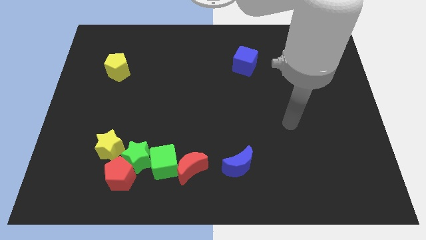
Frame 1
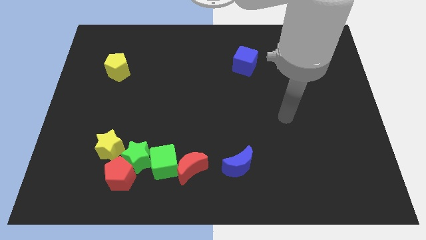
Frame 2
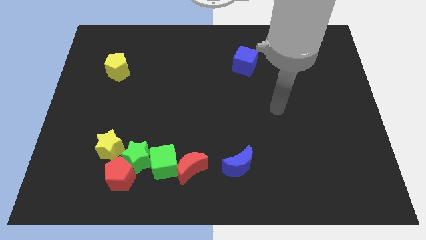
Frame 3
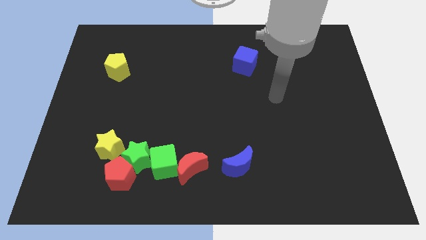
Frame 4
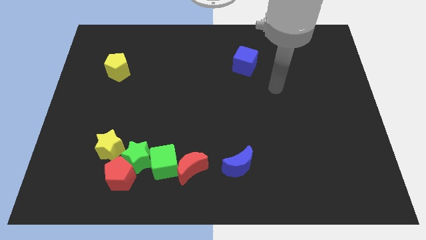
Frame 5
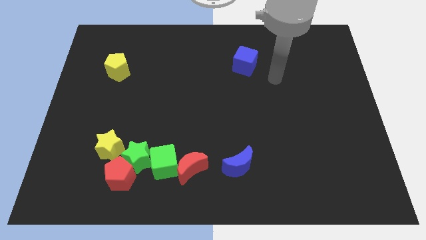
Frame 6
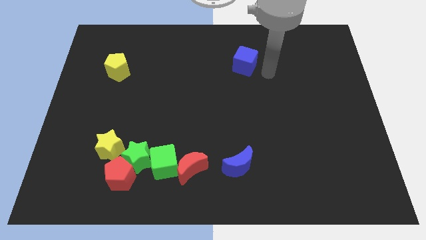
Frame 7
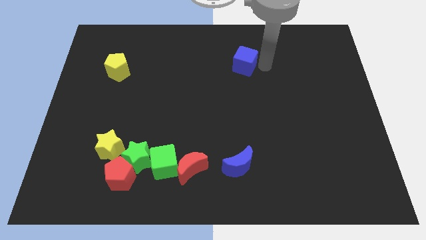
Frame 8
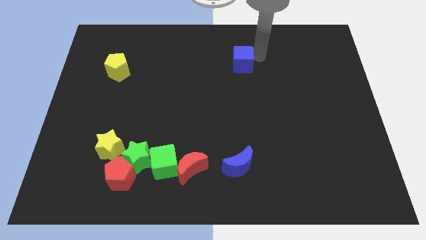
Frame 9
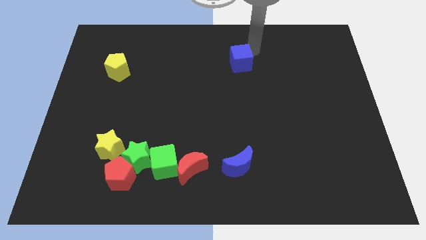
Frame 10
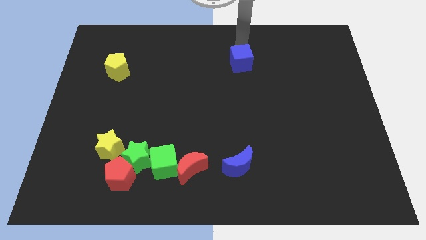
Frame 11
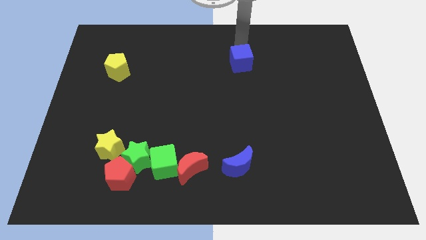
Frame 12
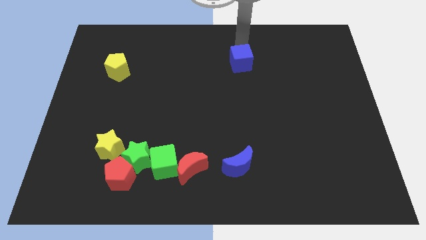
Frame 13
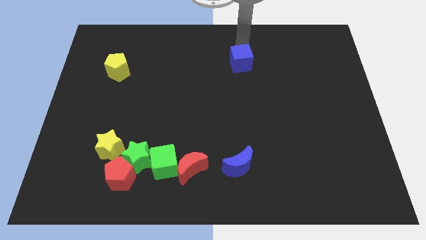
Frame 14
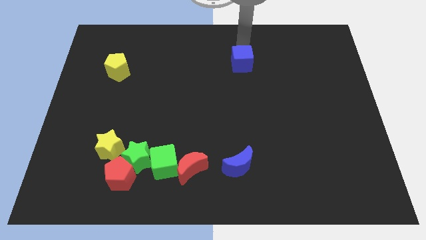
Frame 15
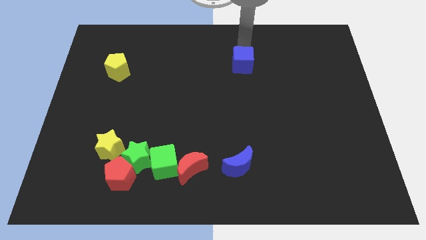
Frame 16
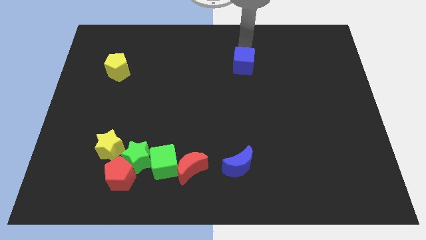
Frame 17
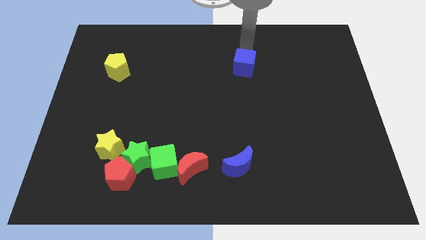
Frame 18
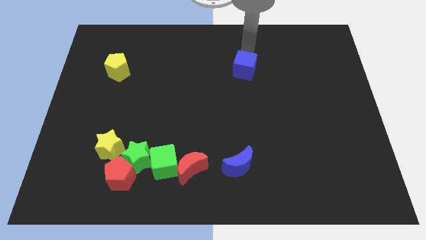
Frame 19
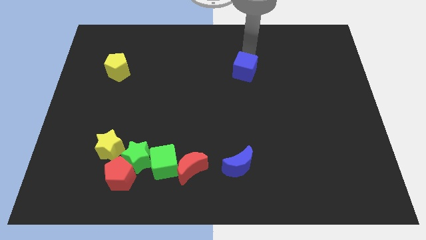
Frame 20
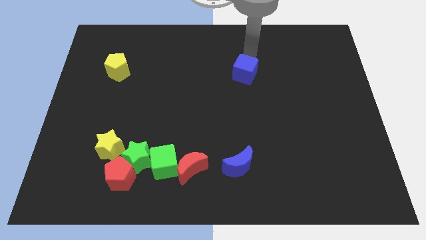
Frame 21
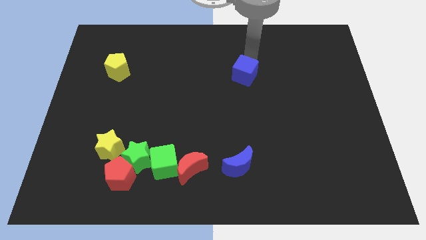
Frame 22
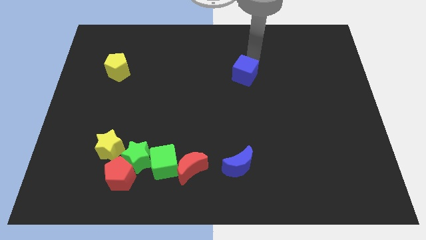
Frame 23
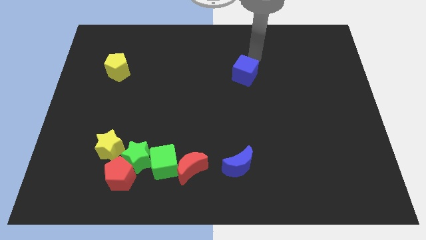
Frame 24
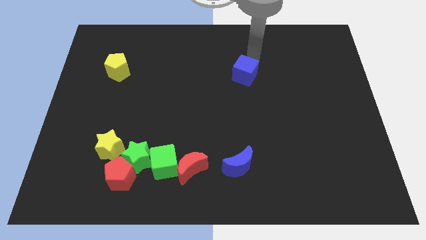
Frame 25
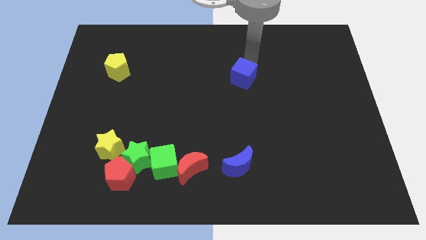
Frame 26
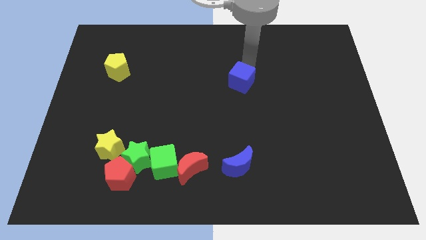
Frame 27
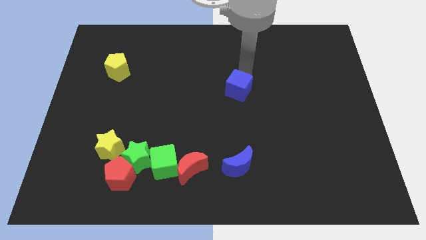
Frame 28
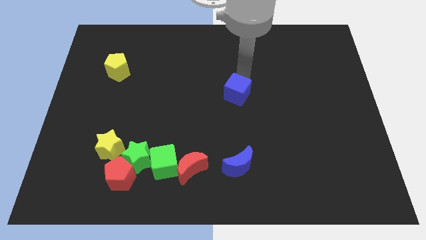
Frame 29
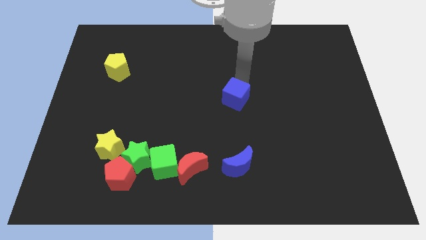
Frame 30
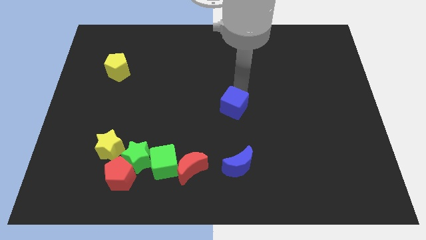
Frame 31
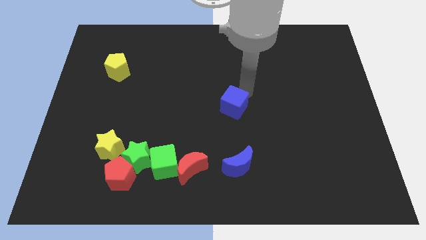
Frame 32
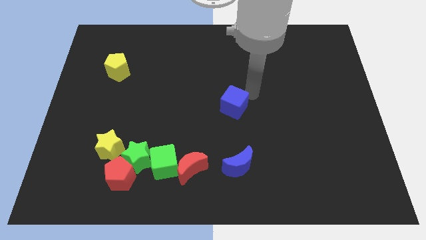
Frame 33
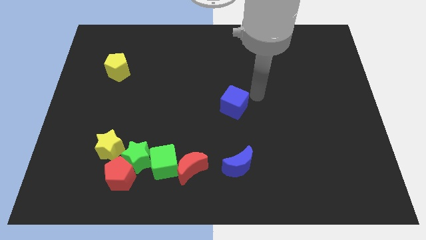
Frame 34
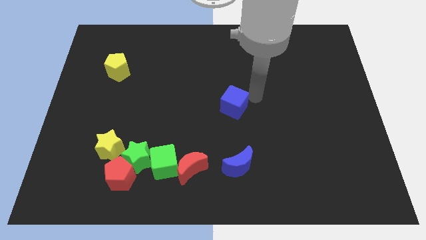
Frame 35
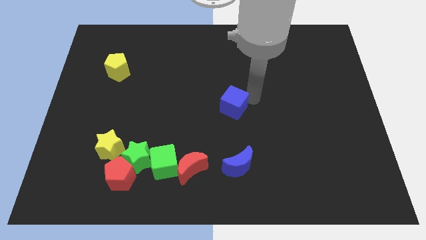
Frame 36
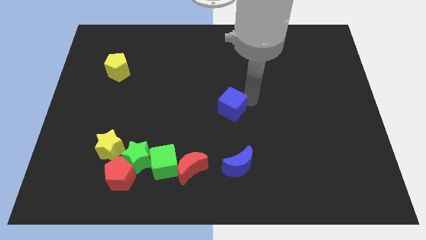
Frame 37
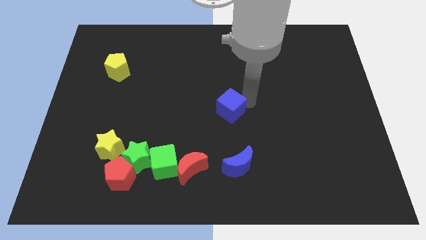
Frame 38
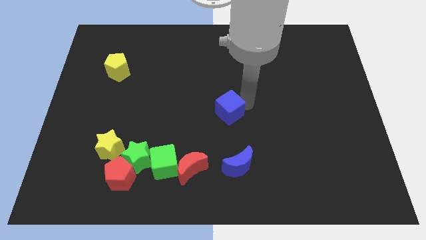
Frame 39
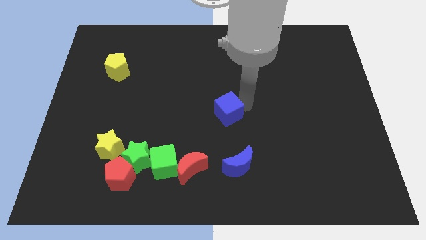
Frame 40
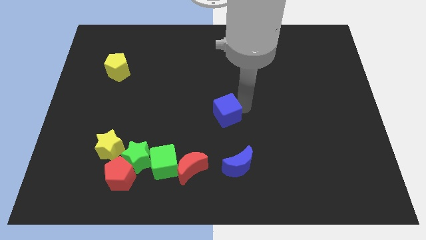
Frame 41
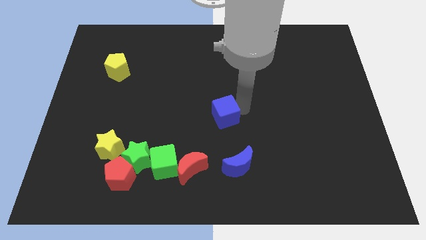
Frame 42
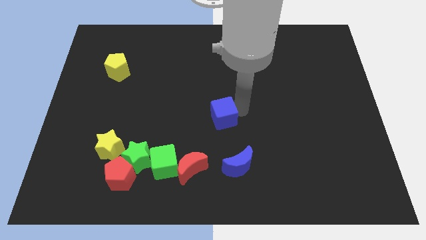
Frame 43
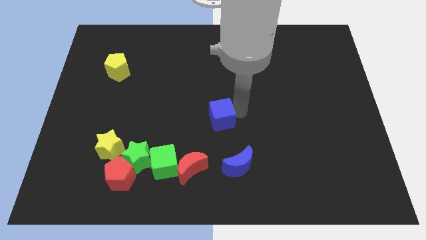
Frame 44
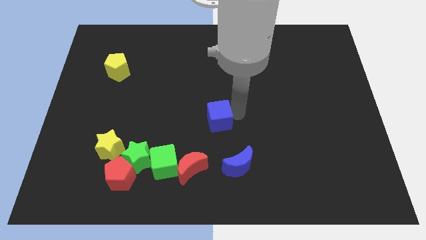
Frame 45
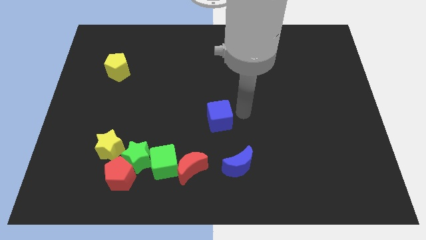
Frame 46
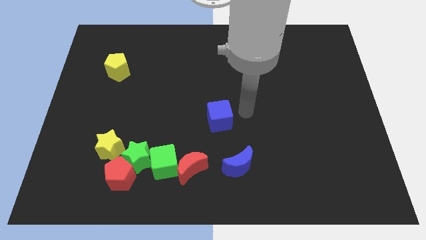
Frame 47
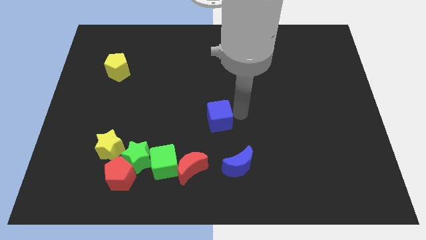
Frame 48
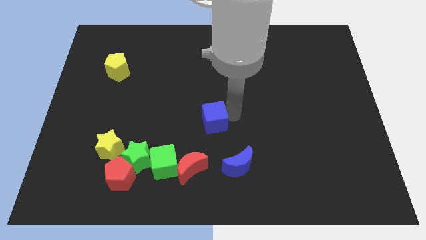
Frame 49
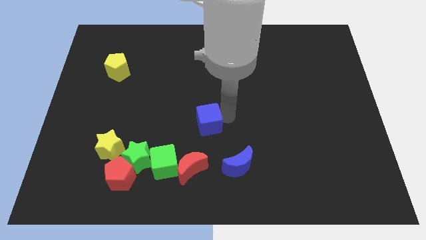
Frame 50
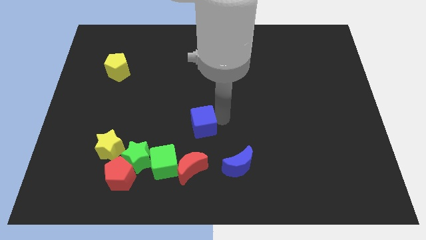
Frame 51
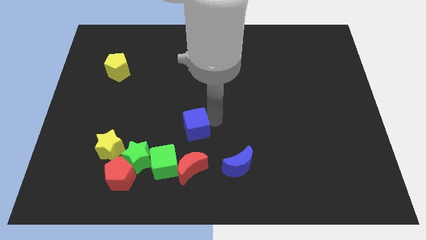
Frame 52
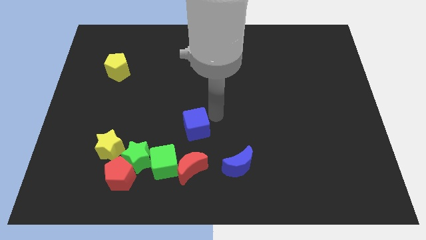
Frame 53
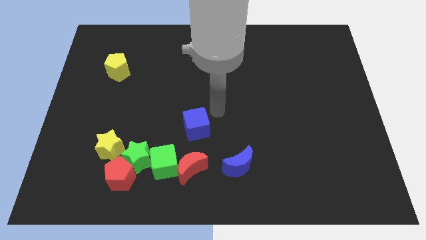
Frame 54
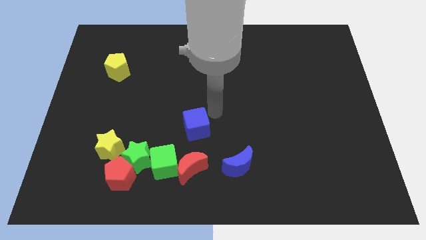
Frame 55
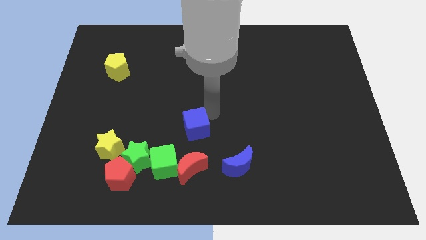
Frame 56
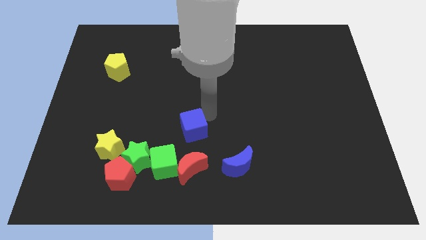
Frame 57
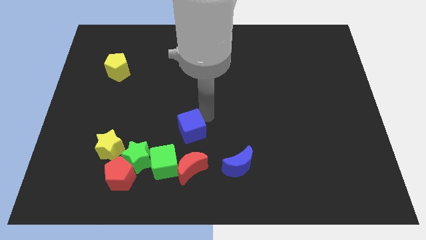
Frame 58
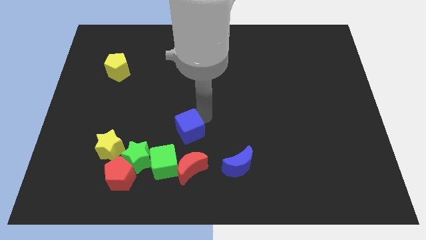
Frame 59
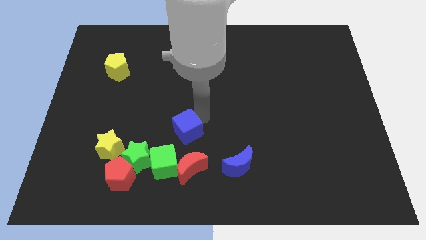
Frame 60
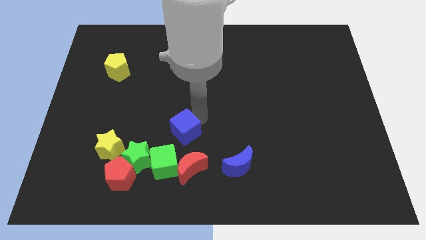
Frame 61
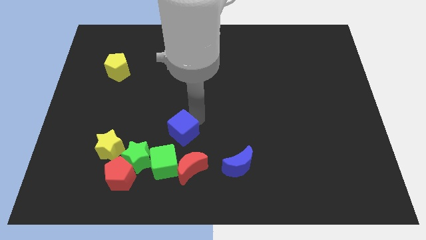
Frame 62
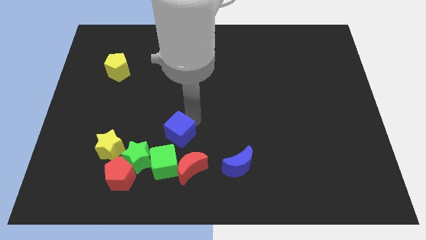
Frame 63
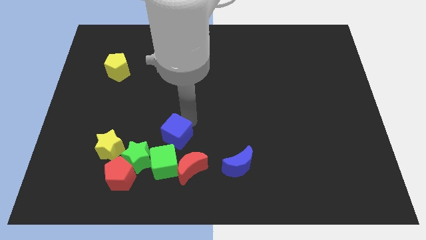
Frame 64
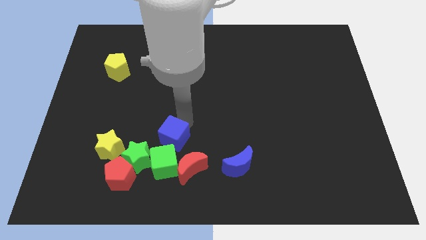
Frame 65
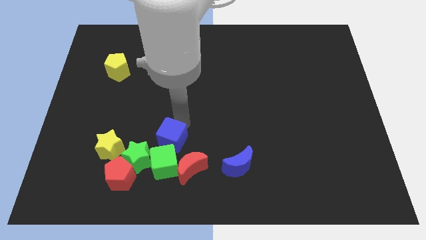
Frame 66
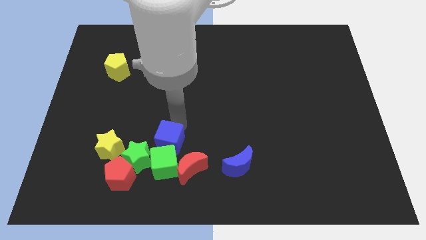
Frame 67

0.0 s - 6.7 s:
move the blue cube to the green cube

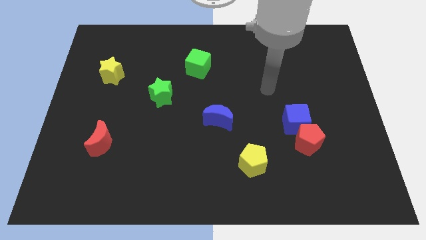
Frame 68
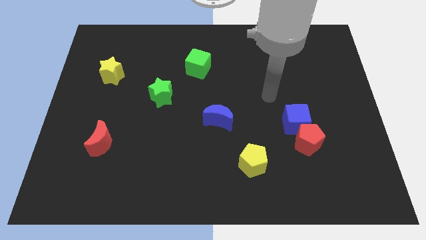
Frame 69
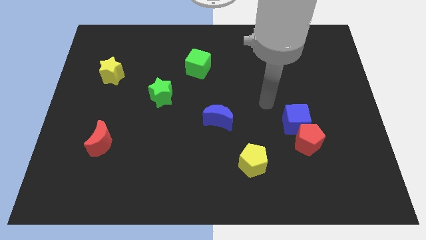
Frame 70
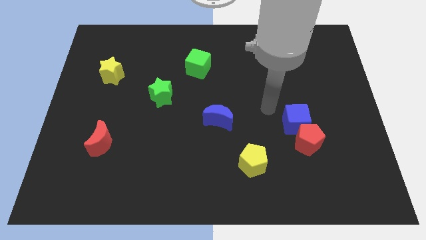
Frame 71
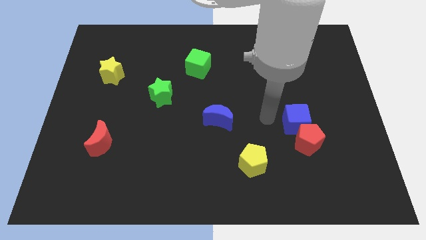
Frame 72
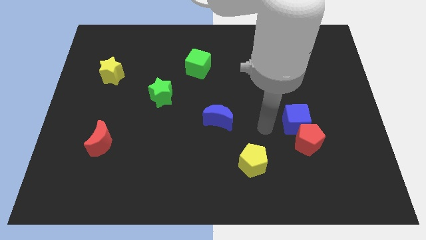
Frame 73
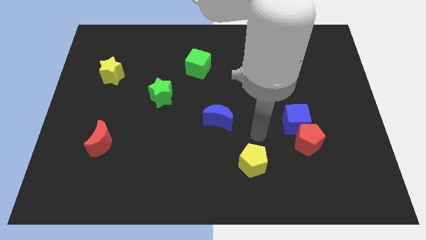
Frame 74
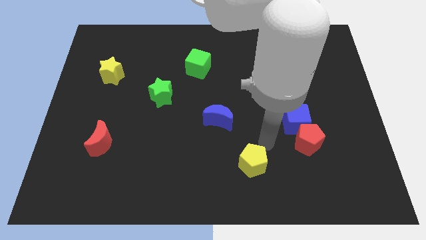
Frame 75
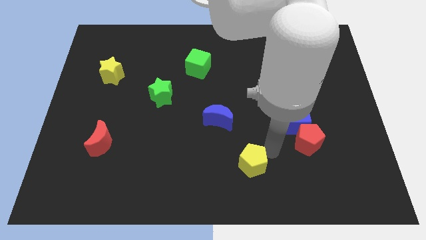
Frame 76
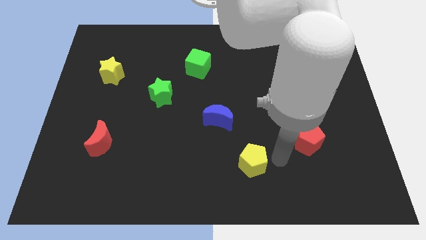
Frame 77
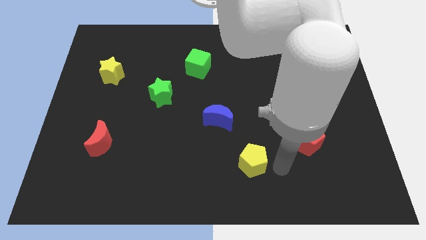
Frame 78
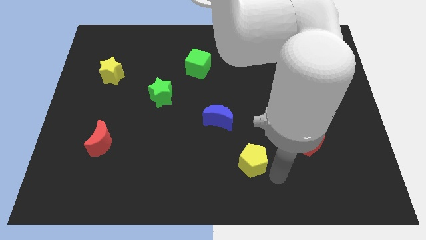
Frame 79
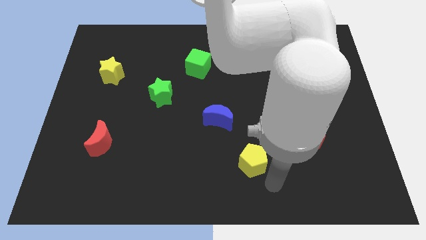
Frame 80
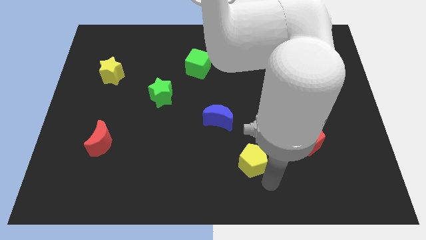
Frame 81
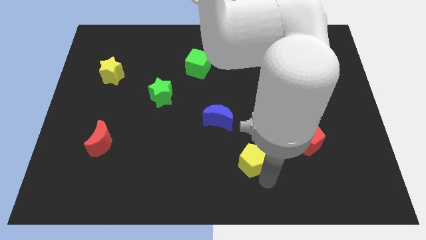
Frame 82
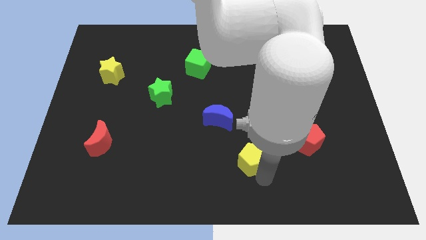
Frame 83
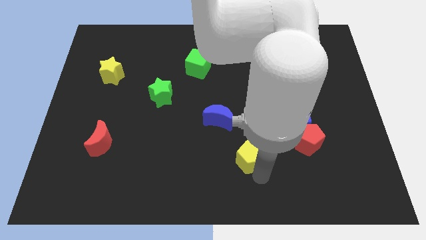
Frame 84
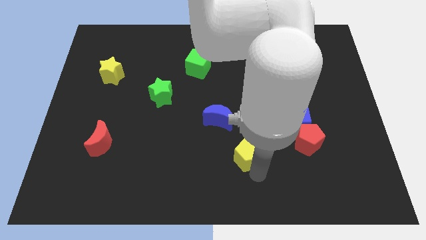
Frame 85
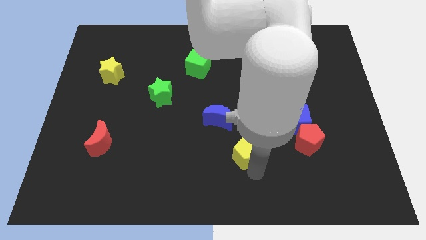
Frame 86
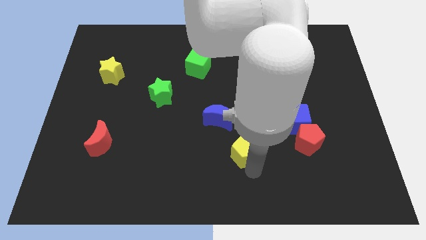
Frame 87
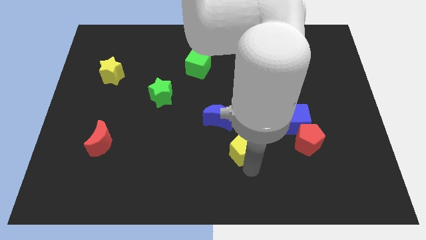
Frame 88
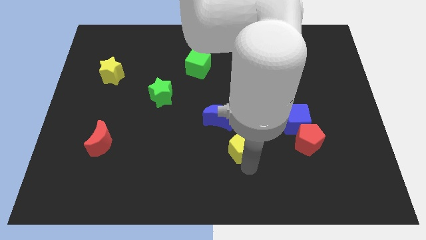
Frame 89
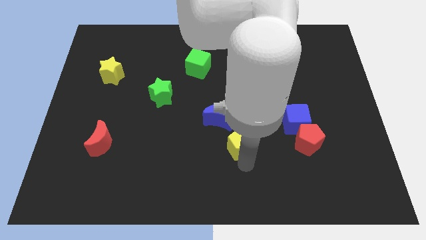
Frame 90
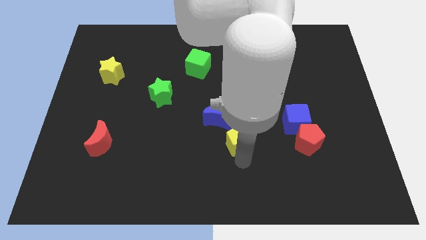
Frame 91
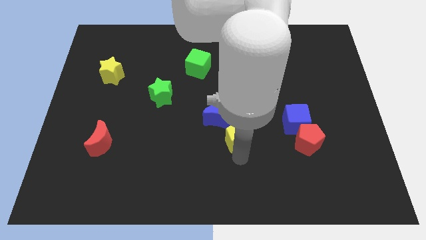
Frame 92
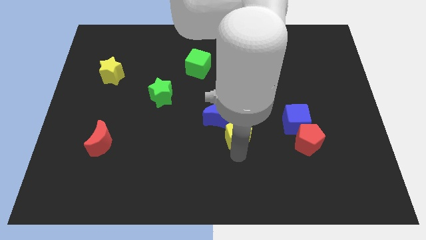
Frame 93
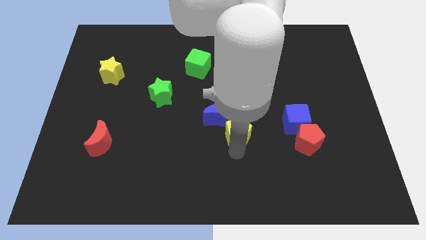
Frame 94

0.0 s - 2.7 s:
move the yellow pentagon towards the blue moon
